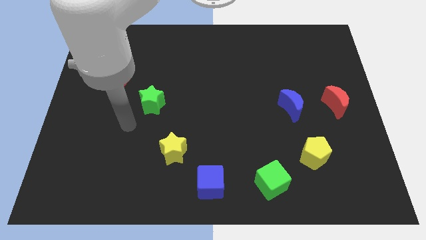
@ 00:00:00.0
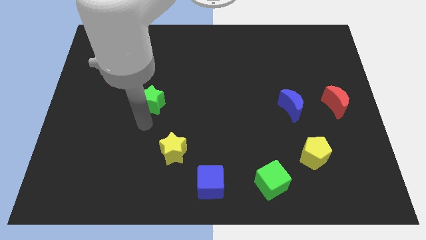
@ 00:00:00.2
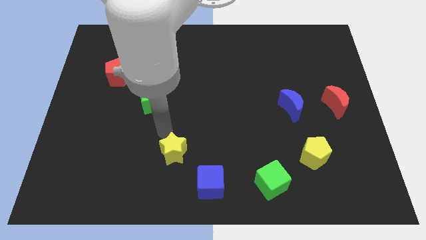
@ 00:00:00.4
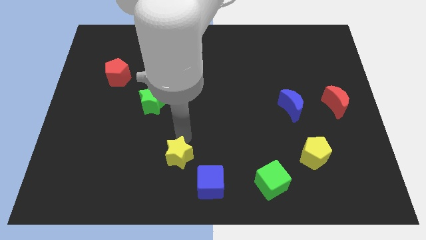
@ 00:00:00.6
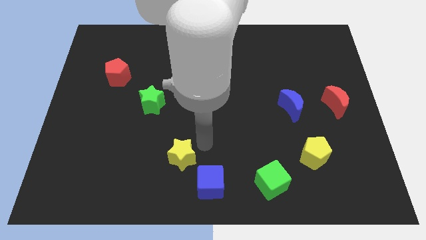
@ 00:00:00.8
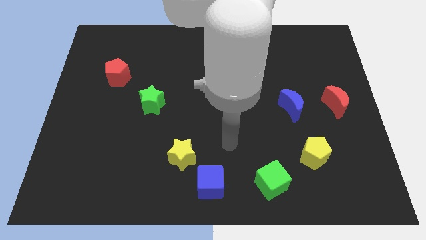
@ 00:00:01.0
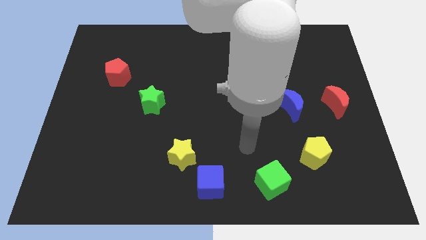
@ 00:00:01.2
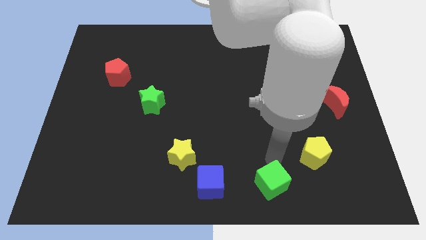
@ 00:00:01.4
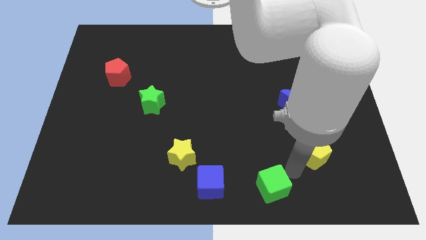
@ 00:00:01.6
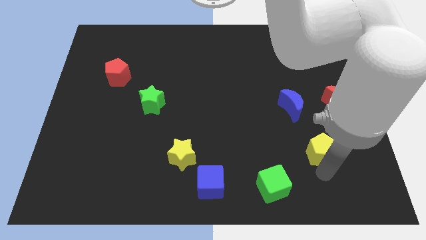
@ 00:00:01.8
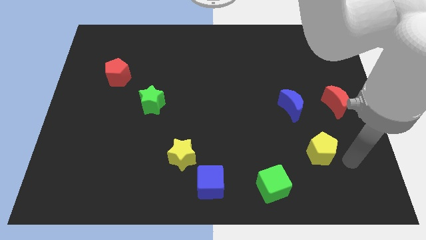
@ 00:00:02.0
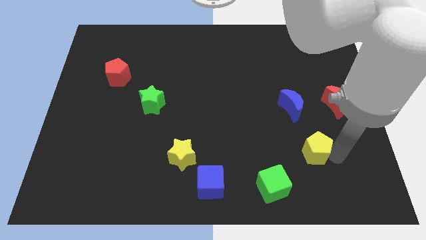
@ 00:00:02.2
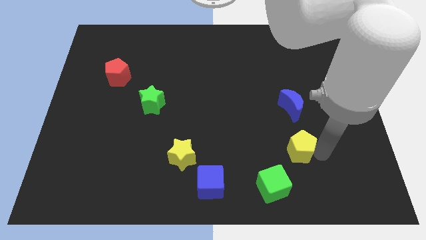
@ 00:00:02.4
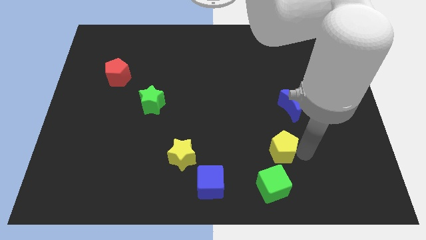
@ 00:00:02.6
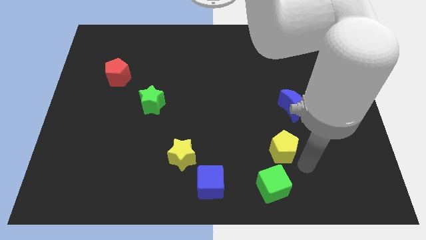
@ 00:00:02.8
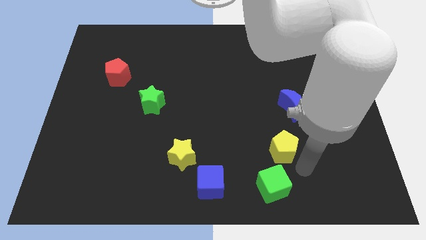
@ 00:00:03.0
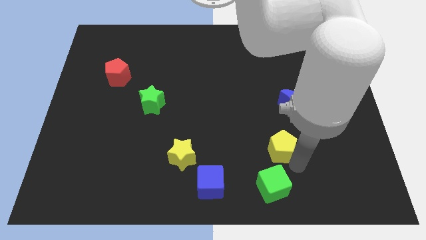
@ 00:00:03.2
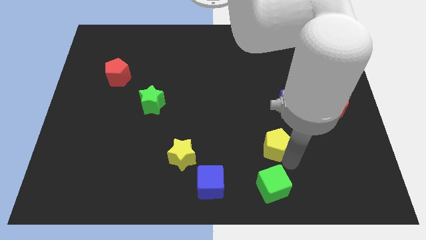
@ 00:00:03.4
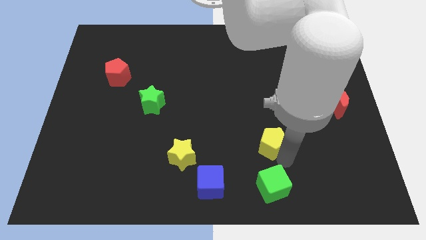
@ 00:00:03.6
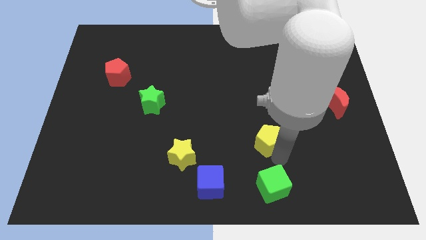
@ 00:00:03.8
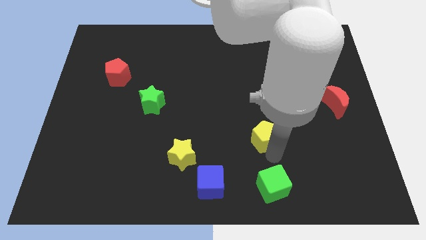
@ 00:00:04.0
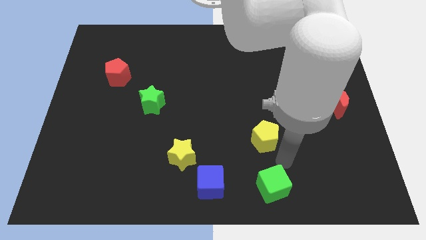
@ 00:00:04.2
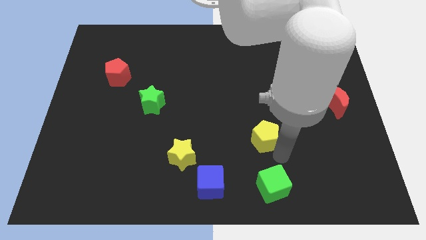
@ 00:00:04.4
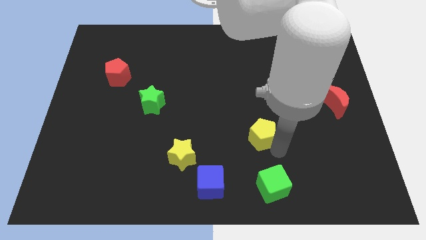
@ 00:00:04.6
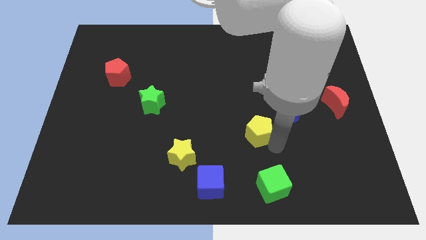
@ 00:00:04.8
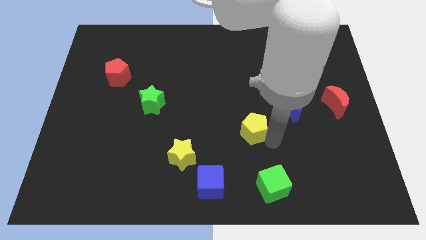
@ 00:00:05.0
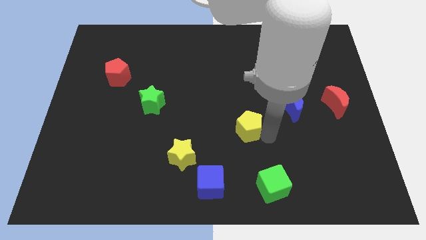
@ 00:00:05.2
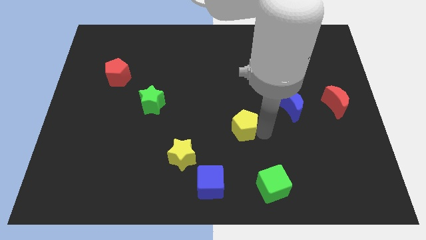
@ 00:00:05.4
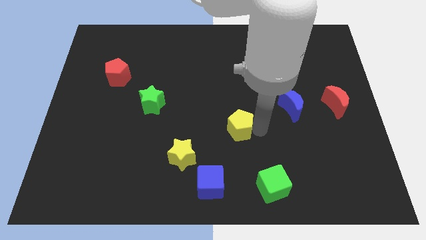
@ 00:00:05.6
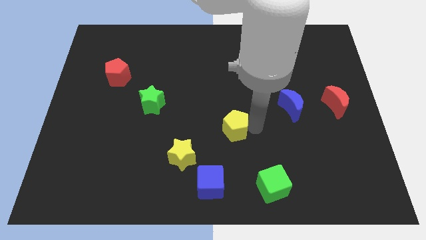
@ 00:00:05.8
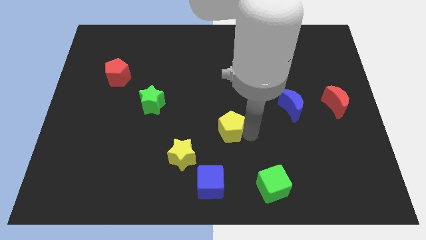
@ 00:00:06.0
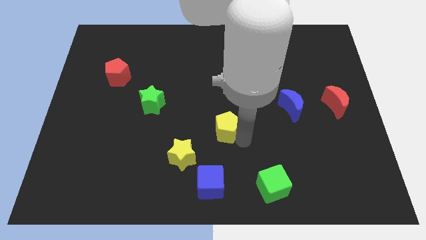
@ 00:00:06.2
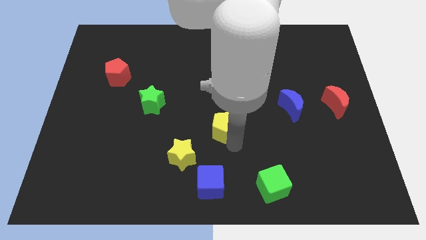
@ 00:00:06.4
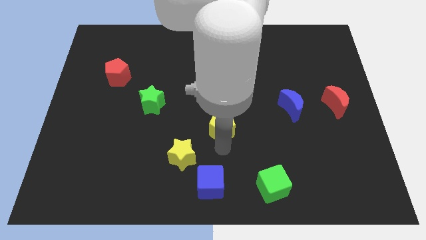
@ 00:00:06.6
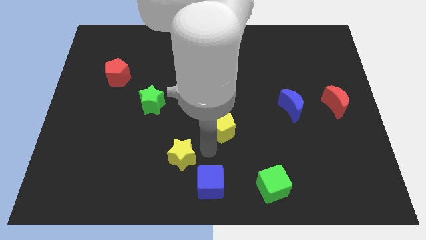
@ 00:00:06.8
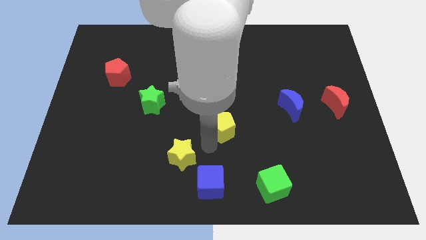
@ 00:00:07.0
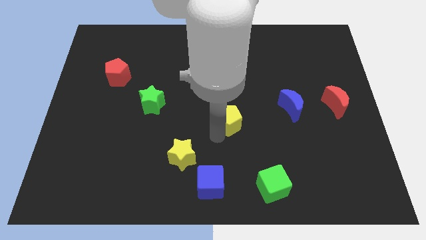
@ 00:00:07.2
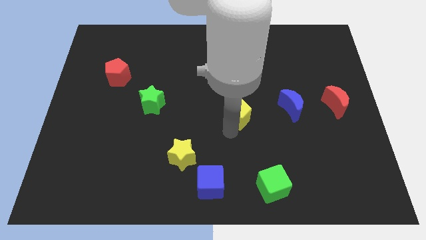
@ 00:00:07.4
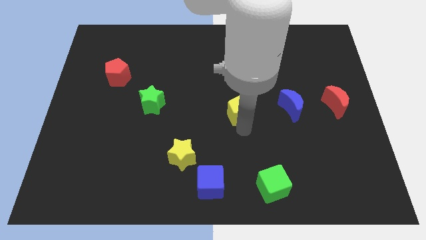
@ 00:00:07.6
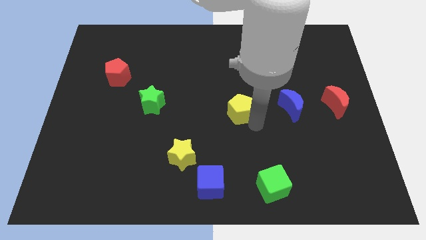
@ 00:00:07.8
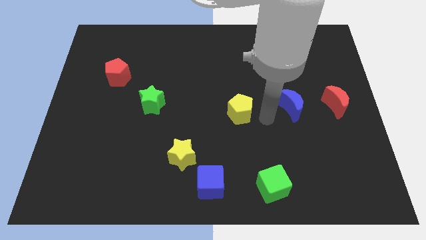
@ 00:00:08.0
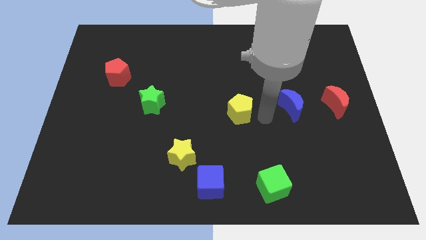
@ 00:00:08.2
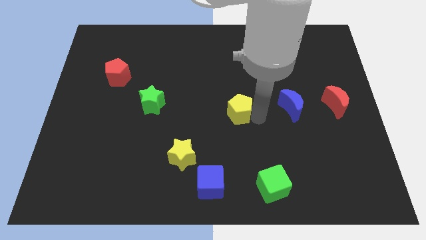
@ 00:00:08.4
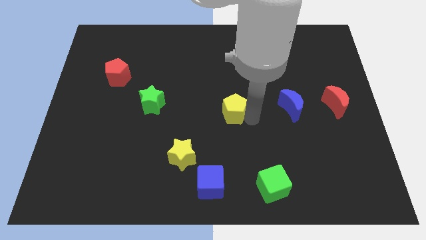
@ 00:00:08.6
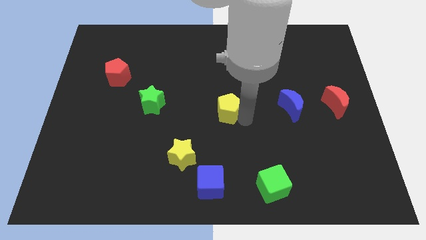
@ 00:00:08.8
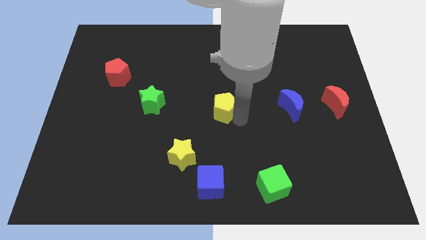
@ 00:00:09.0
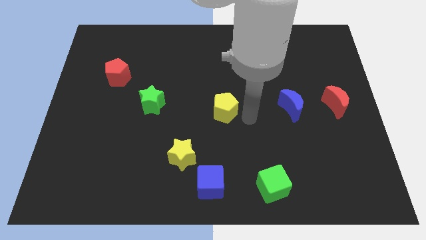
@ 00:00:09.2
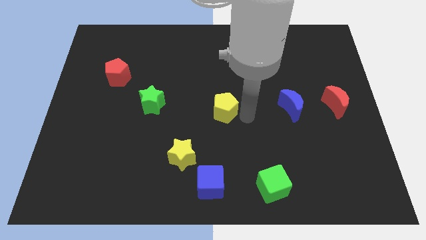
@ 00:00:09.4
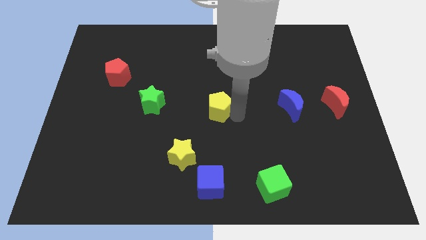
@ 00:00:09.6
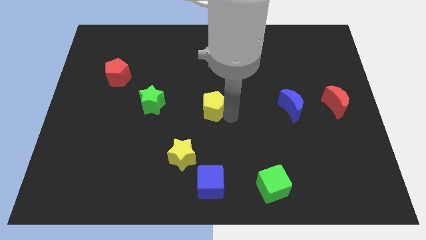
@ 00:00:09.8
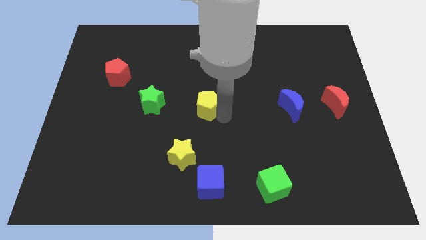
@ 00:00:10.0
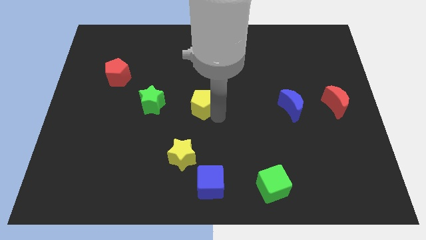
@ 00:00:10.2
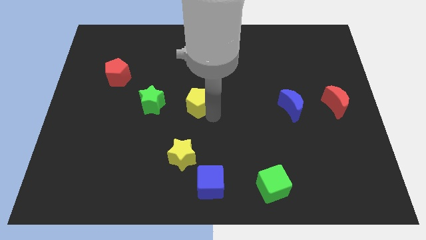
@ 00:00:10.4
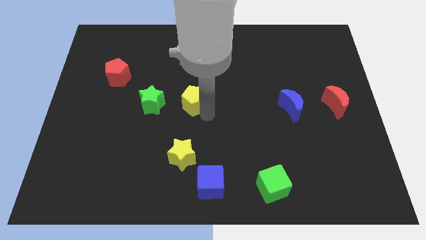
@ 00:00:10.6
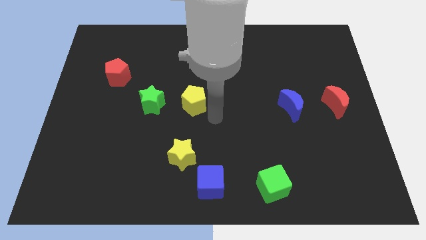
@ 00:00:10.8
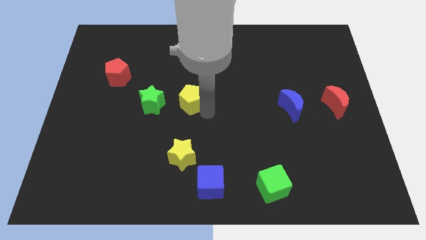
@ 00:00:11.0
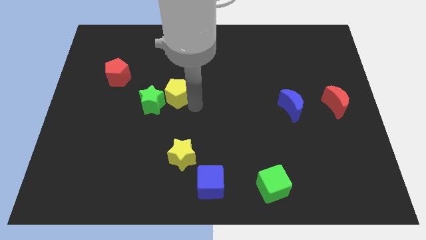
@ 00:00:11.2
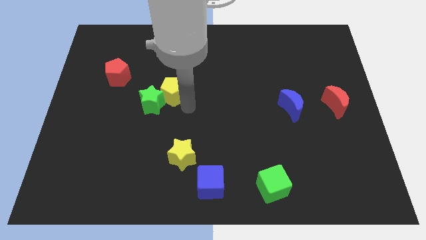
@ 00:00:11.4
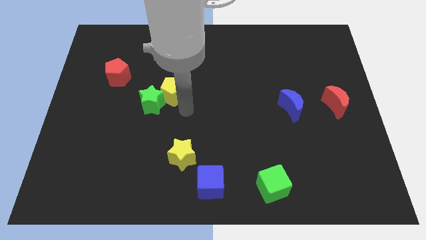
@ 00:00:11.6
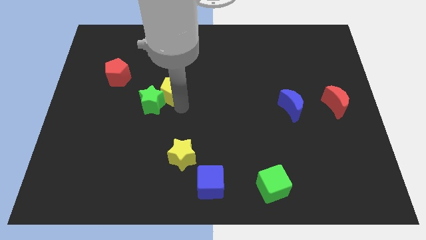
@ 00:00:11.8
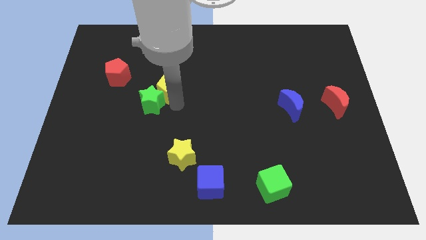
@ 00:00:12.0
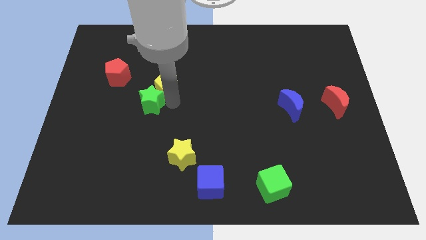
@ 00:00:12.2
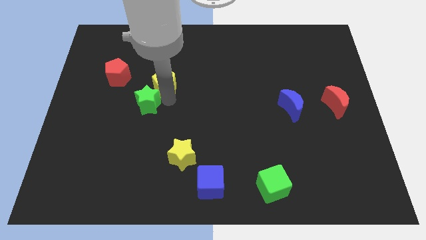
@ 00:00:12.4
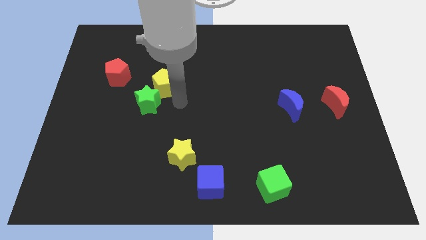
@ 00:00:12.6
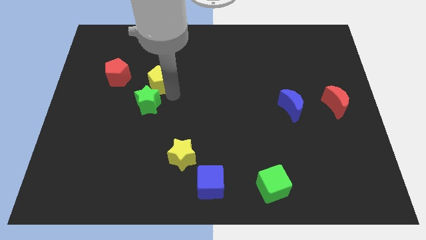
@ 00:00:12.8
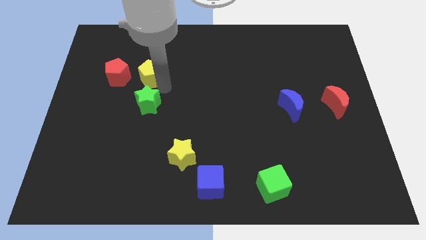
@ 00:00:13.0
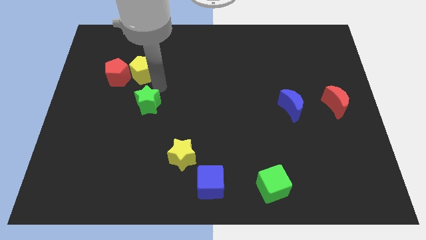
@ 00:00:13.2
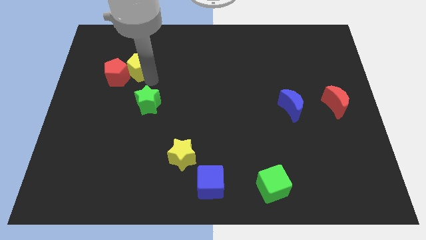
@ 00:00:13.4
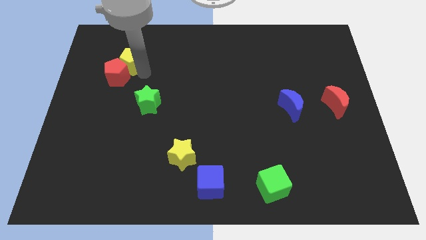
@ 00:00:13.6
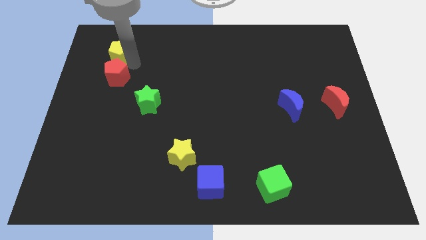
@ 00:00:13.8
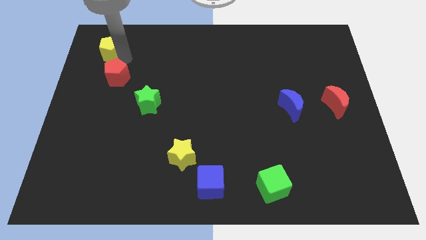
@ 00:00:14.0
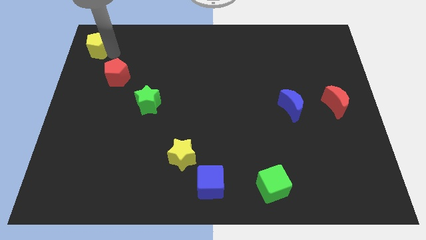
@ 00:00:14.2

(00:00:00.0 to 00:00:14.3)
move the yellow pentagon to the top left
